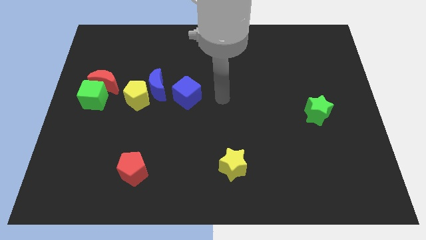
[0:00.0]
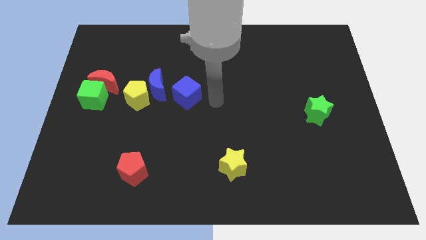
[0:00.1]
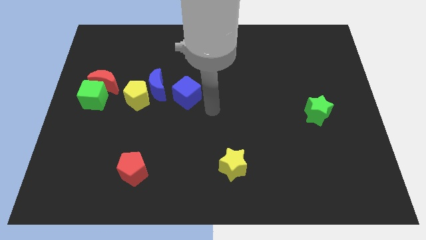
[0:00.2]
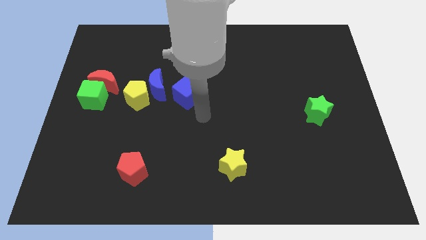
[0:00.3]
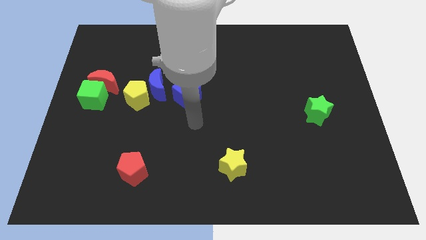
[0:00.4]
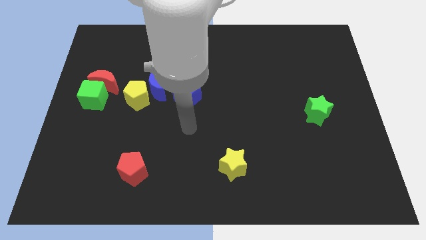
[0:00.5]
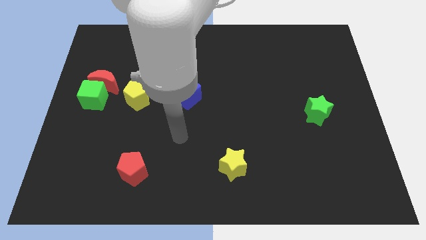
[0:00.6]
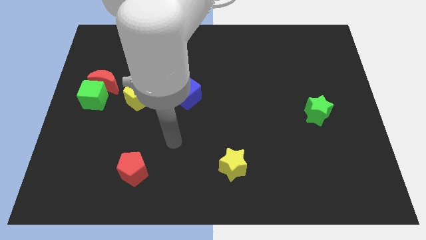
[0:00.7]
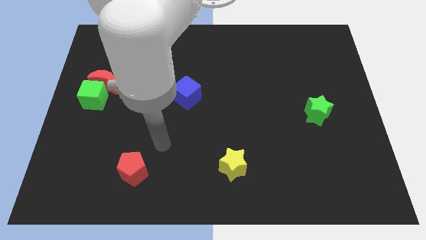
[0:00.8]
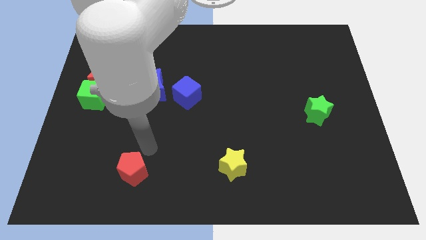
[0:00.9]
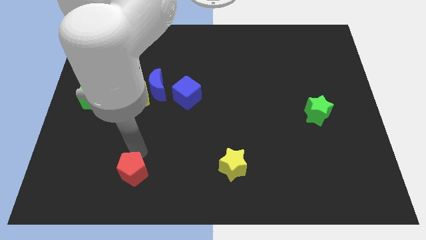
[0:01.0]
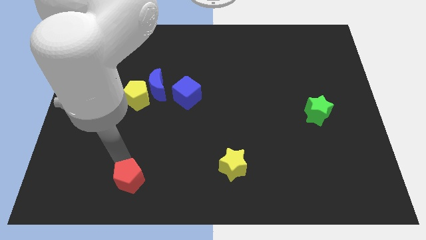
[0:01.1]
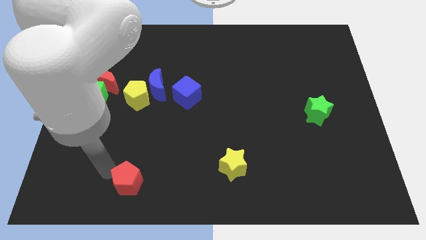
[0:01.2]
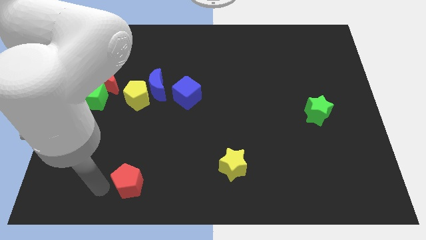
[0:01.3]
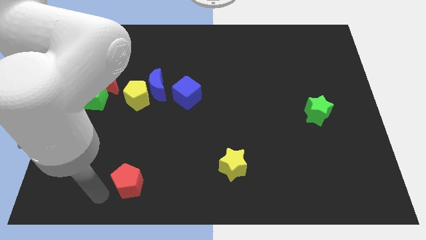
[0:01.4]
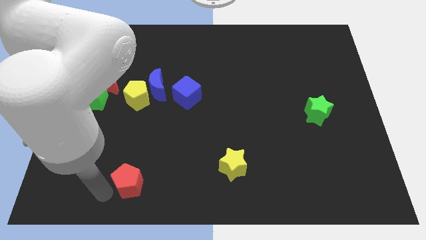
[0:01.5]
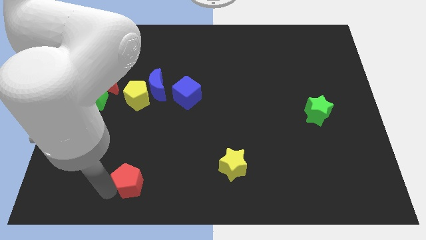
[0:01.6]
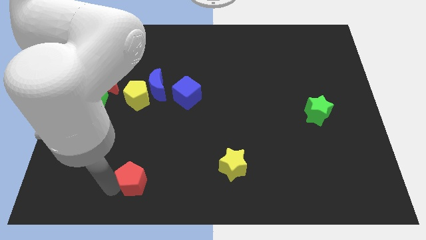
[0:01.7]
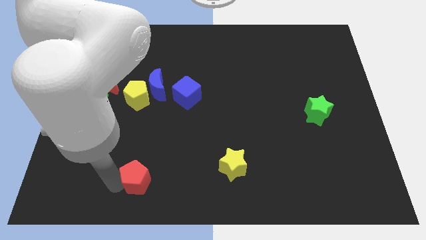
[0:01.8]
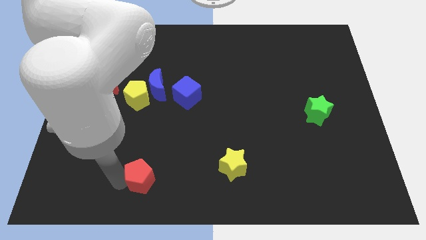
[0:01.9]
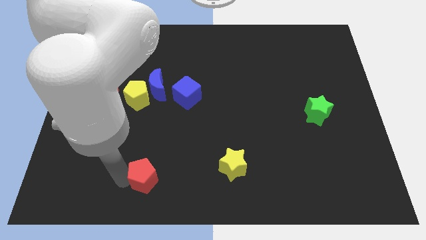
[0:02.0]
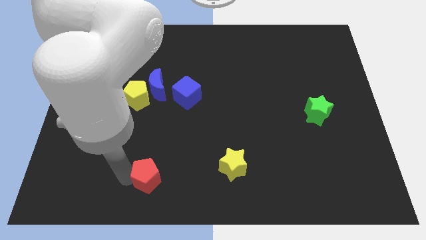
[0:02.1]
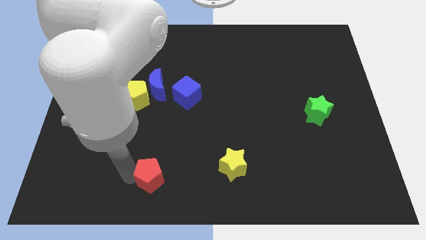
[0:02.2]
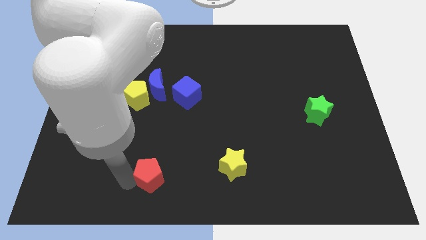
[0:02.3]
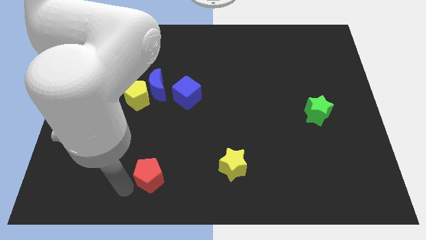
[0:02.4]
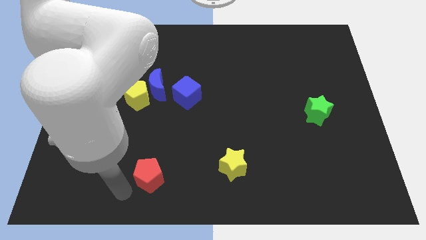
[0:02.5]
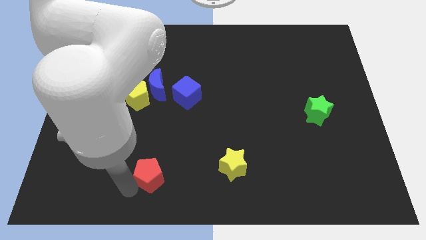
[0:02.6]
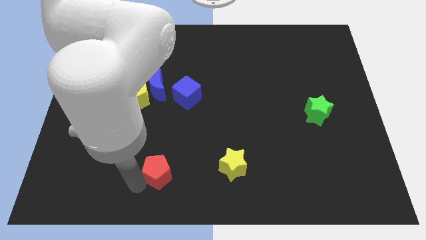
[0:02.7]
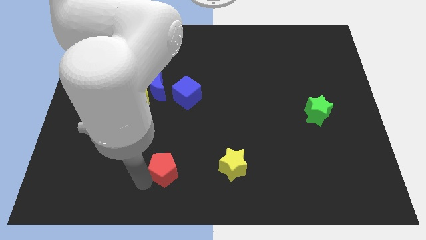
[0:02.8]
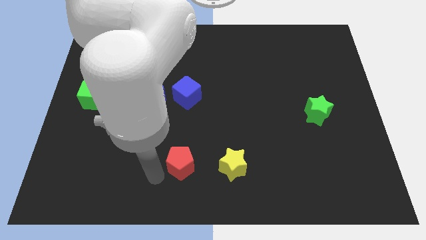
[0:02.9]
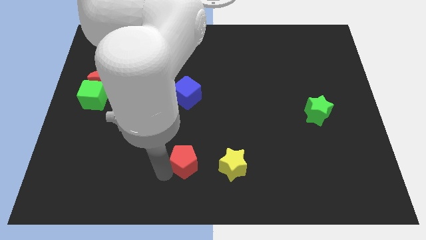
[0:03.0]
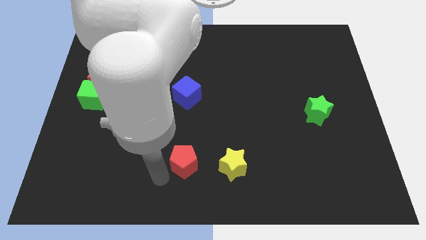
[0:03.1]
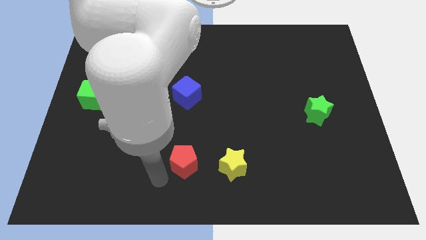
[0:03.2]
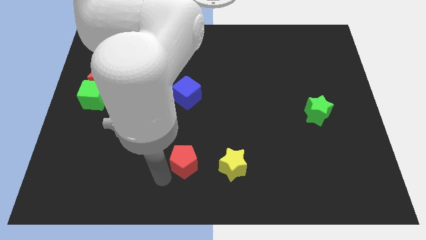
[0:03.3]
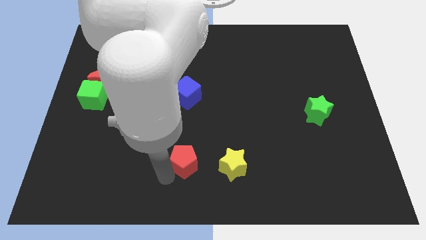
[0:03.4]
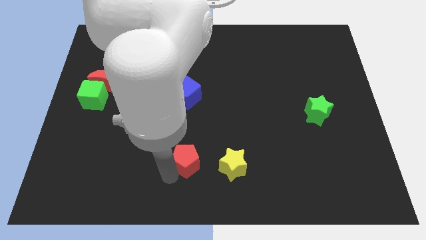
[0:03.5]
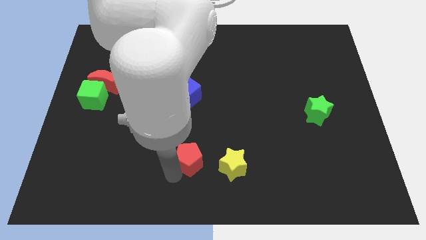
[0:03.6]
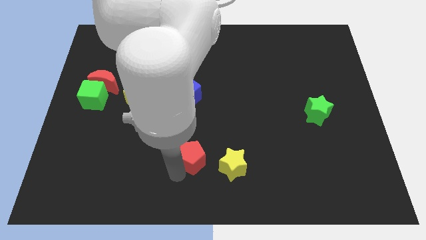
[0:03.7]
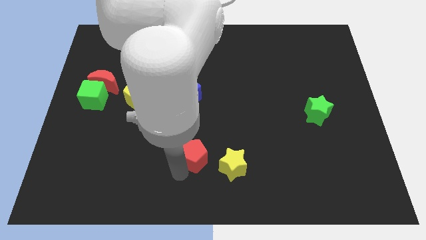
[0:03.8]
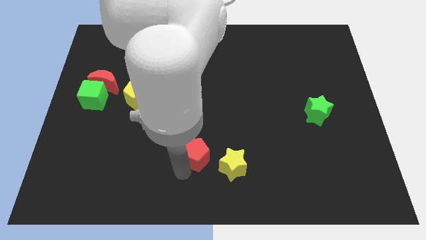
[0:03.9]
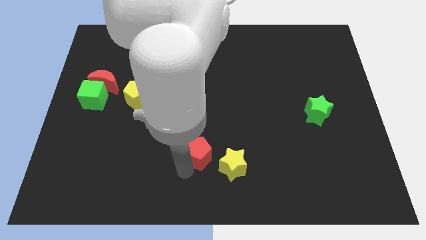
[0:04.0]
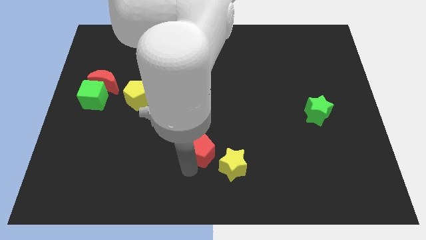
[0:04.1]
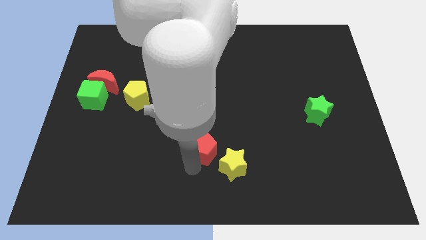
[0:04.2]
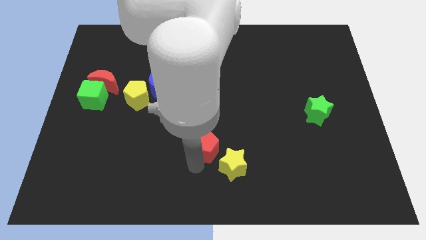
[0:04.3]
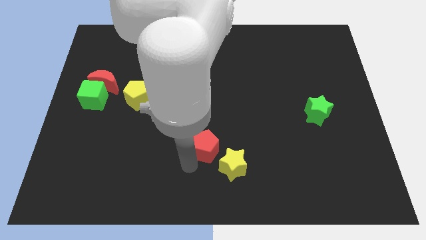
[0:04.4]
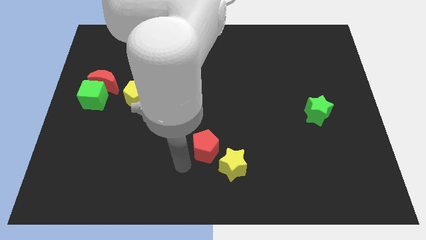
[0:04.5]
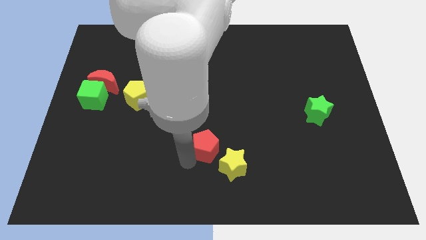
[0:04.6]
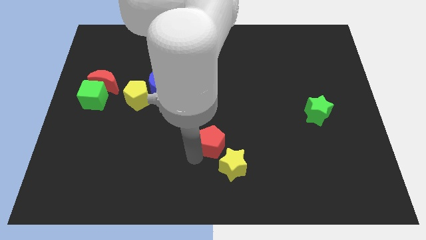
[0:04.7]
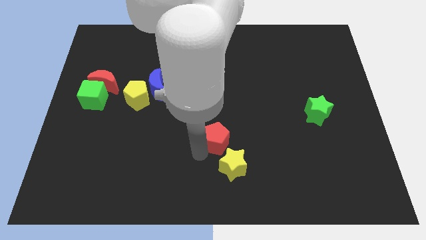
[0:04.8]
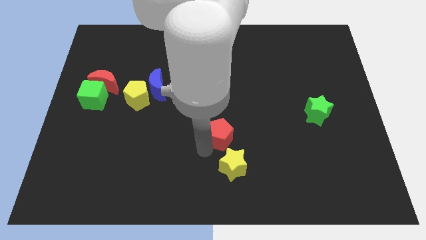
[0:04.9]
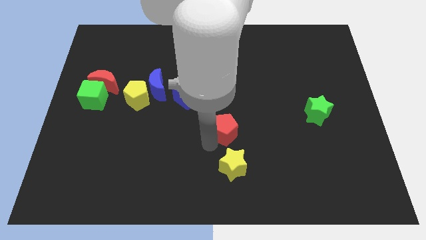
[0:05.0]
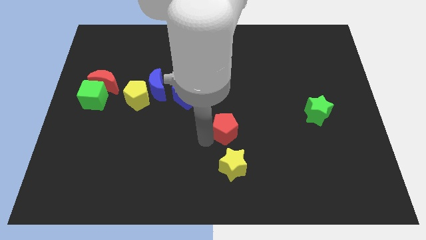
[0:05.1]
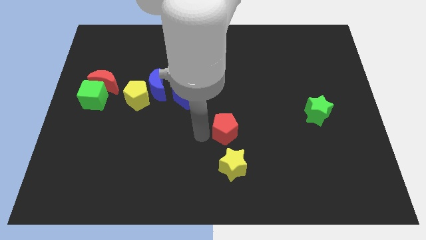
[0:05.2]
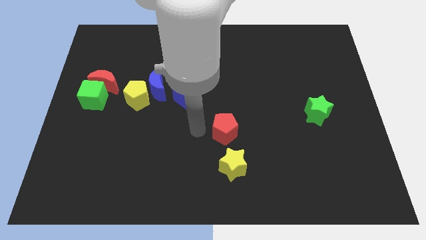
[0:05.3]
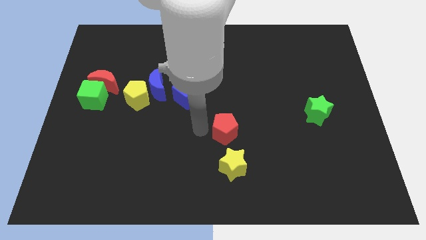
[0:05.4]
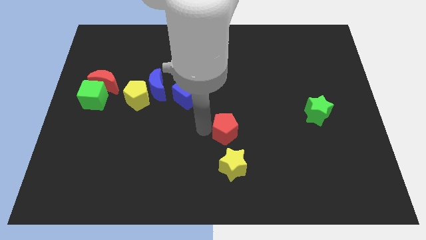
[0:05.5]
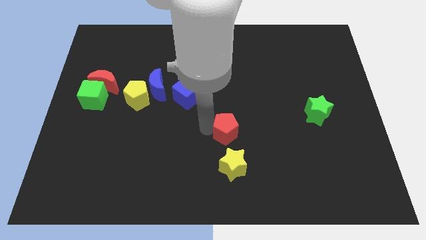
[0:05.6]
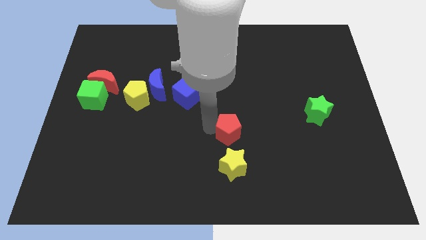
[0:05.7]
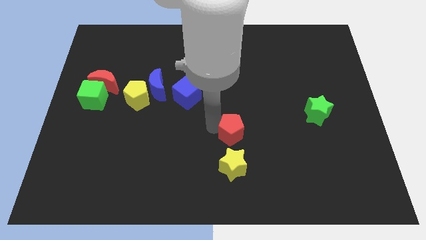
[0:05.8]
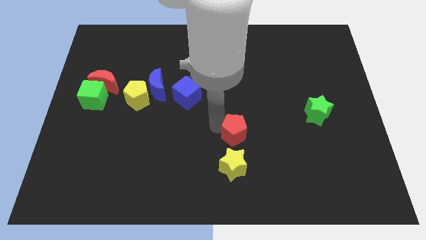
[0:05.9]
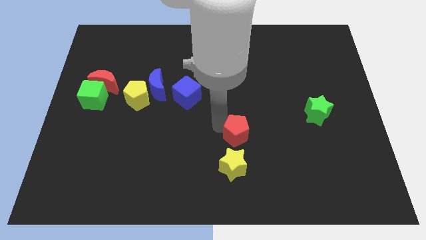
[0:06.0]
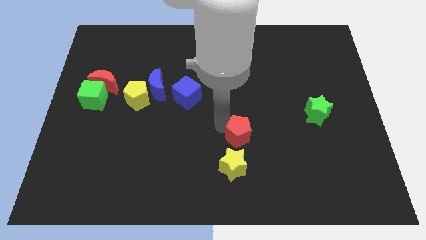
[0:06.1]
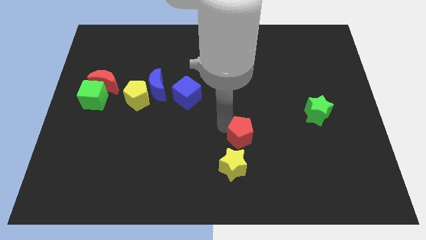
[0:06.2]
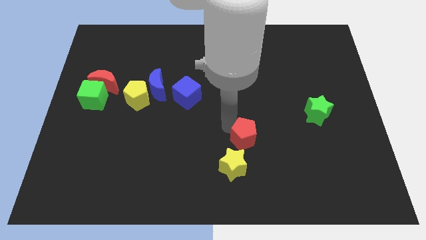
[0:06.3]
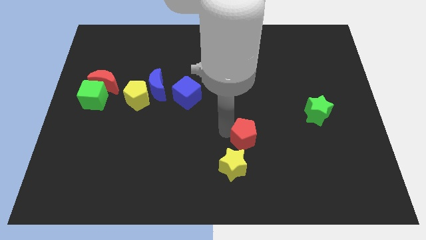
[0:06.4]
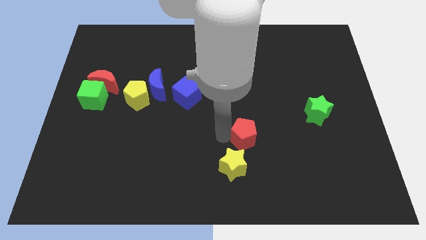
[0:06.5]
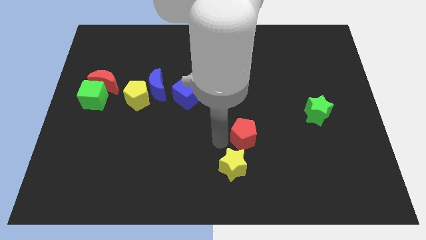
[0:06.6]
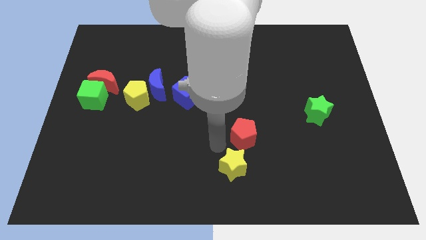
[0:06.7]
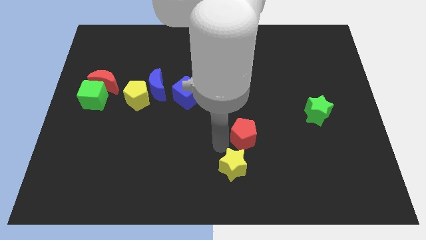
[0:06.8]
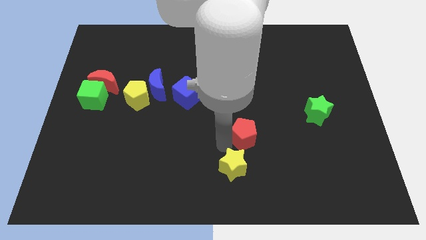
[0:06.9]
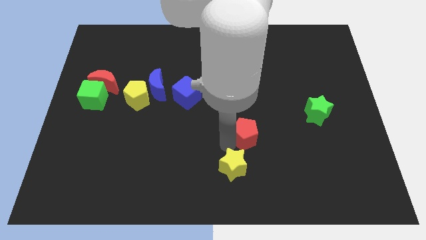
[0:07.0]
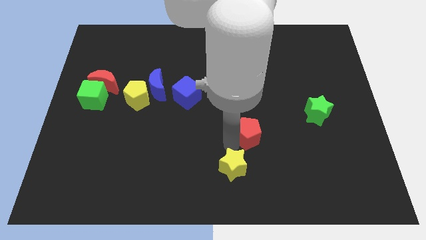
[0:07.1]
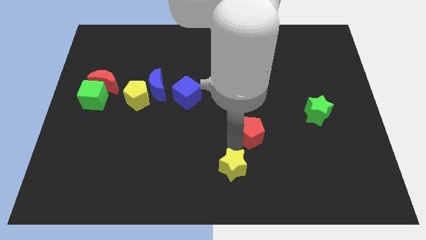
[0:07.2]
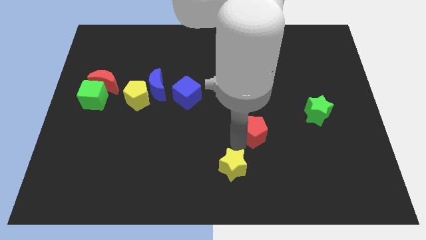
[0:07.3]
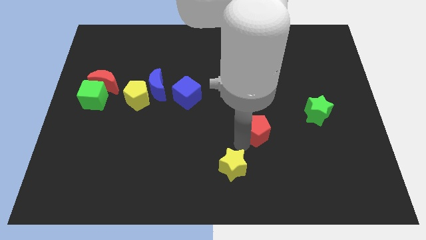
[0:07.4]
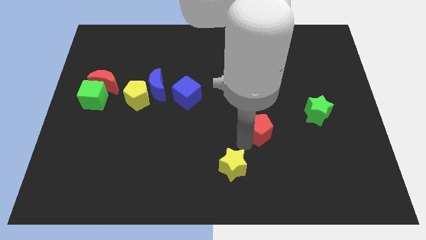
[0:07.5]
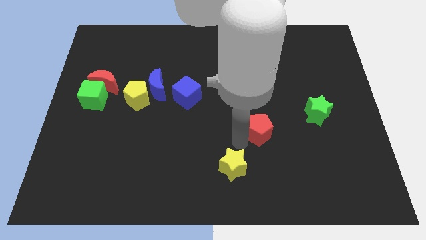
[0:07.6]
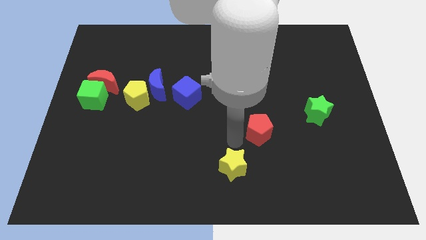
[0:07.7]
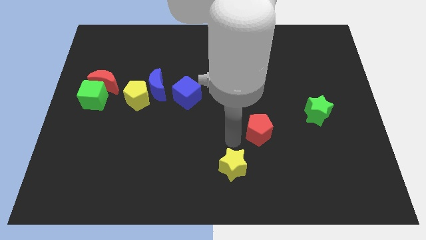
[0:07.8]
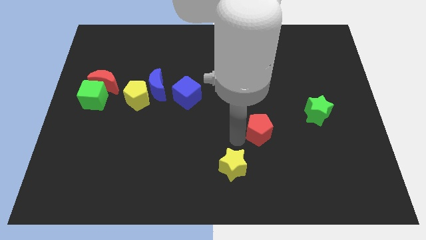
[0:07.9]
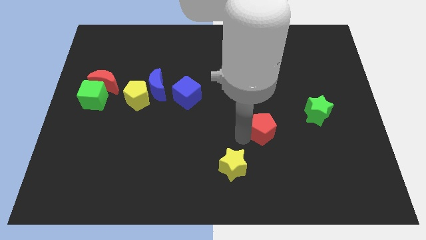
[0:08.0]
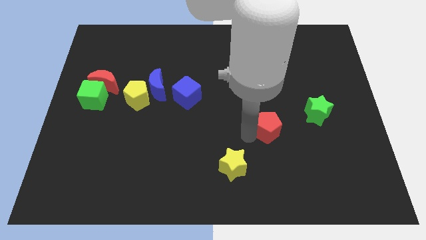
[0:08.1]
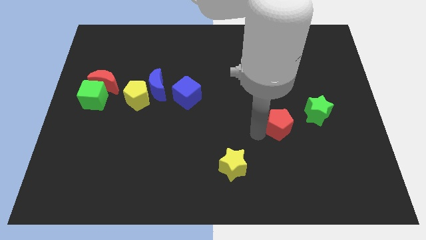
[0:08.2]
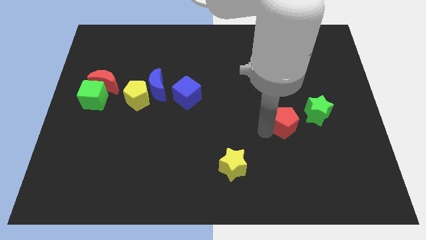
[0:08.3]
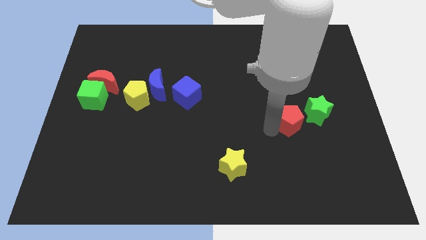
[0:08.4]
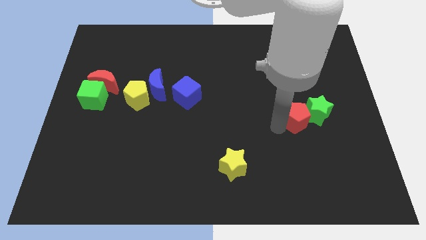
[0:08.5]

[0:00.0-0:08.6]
push the red pentagon towards the green star
